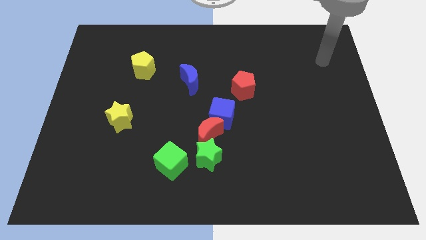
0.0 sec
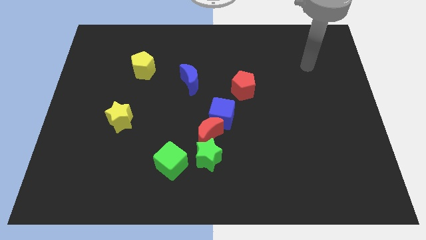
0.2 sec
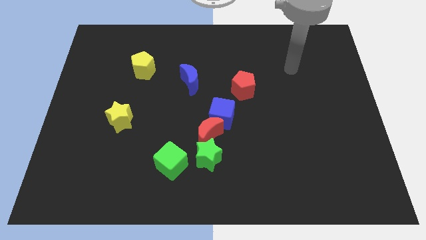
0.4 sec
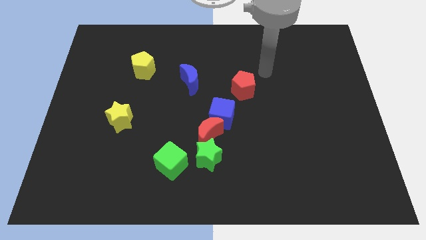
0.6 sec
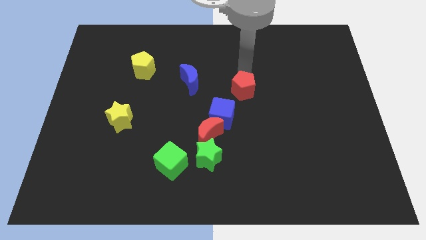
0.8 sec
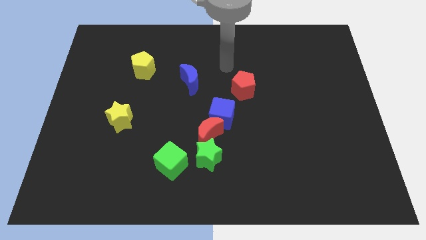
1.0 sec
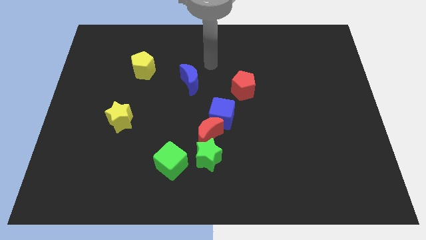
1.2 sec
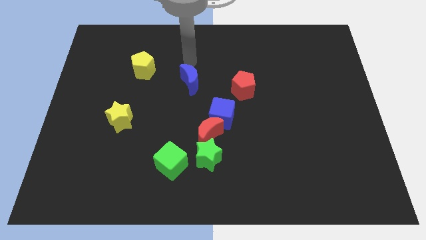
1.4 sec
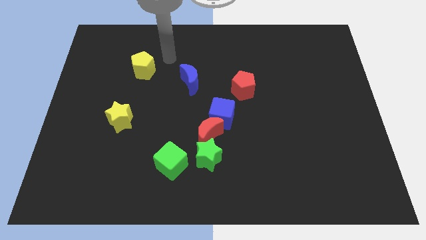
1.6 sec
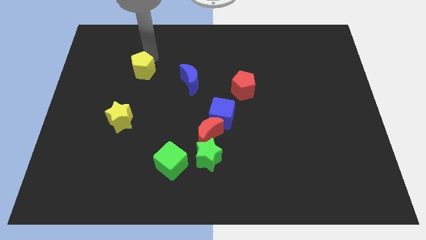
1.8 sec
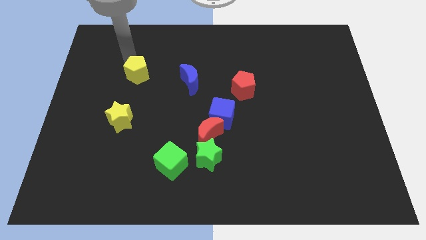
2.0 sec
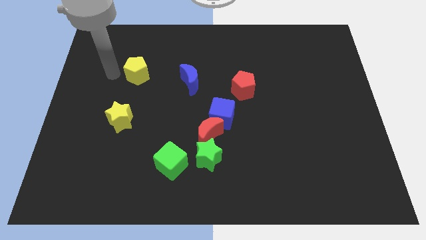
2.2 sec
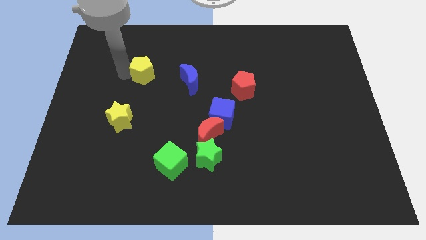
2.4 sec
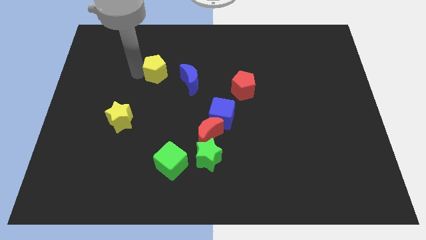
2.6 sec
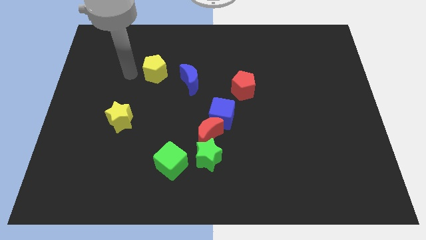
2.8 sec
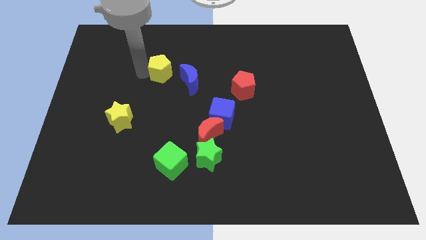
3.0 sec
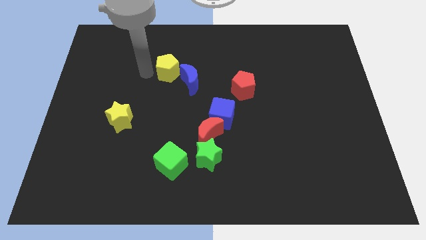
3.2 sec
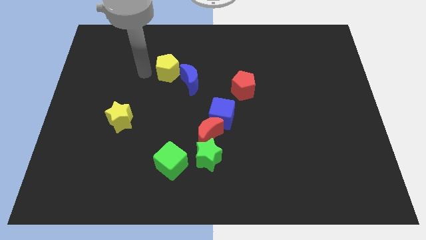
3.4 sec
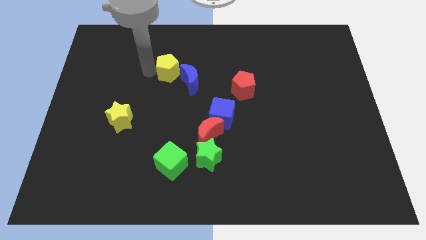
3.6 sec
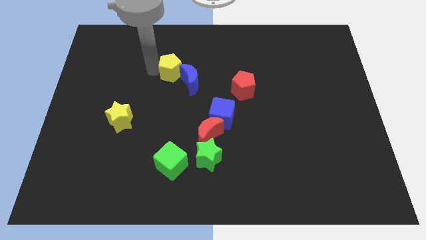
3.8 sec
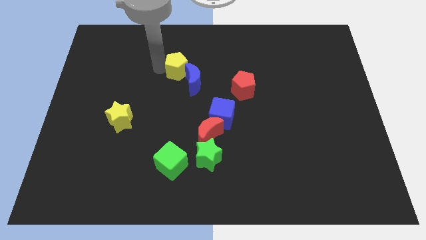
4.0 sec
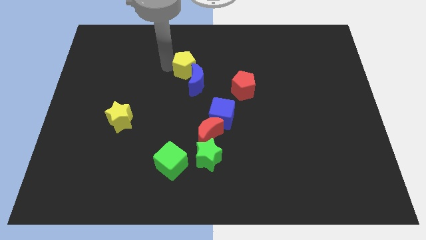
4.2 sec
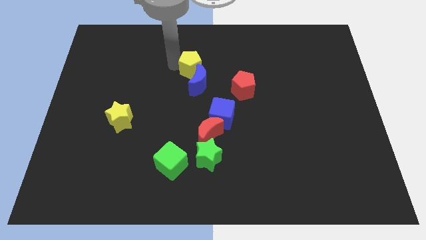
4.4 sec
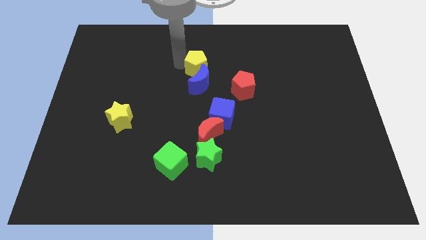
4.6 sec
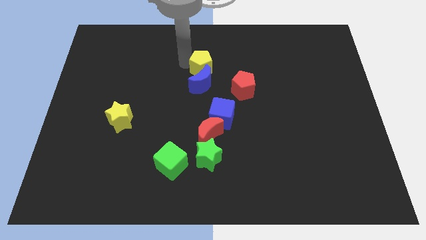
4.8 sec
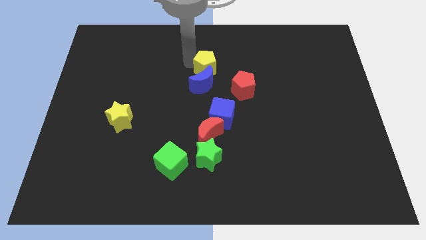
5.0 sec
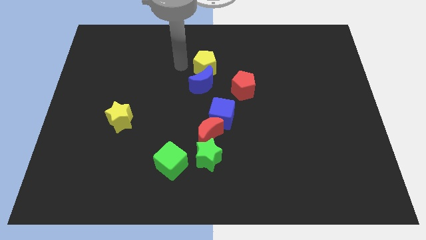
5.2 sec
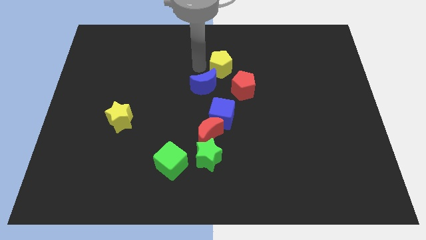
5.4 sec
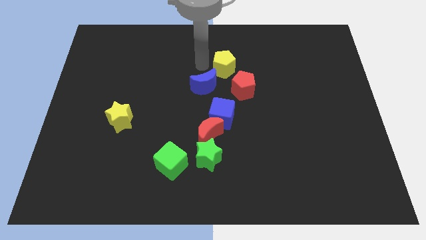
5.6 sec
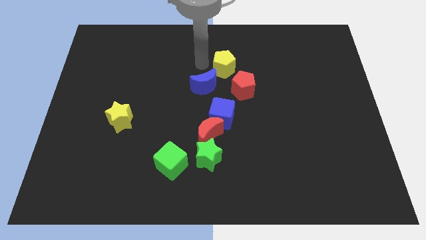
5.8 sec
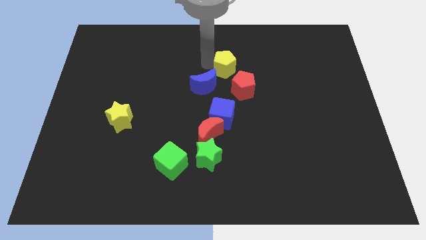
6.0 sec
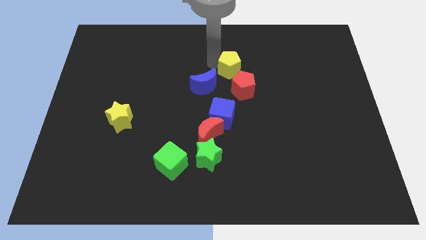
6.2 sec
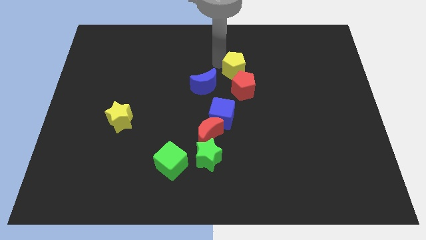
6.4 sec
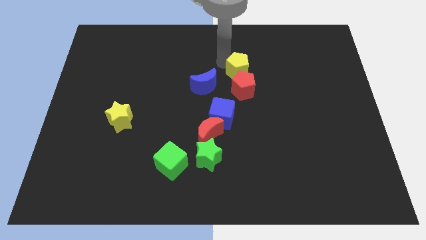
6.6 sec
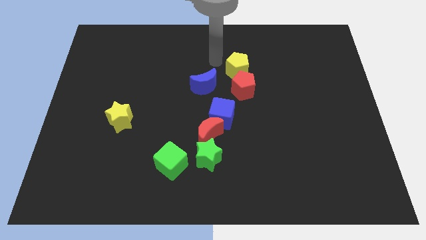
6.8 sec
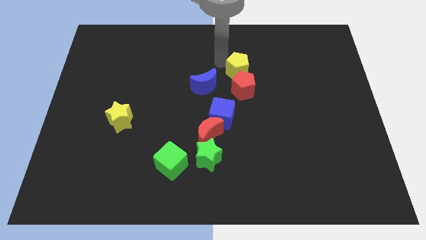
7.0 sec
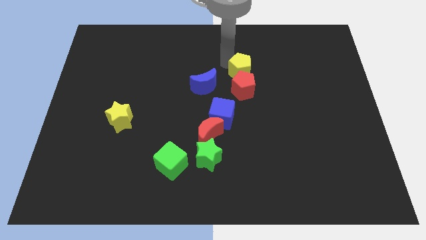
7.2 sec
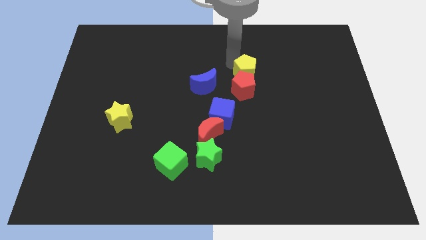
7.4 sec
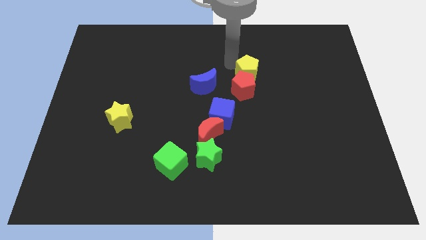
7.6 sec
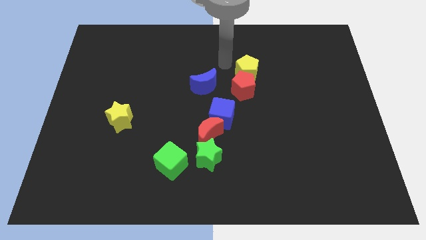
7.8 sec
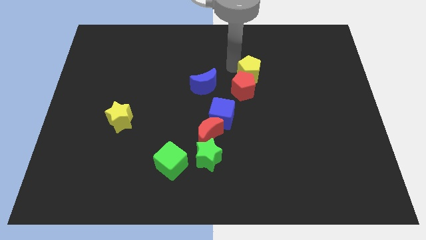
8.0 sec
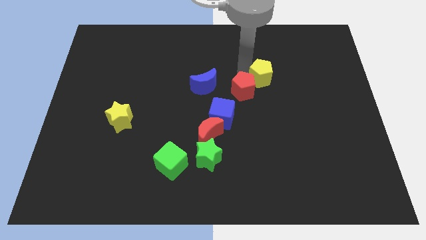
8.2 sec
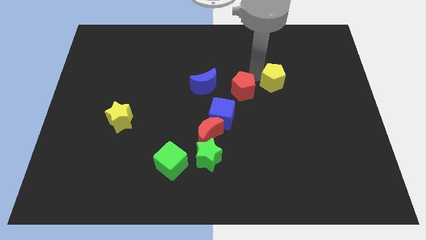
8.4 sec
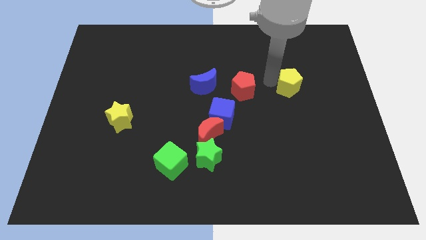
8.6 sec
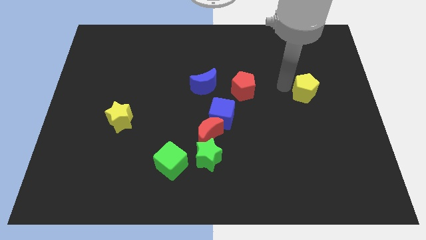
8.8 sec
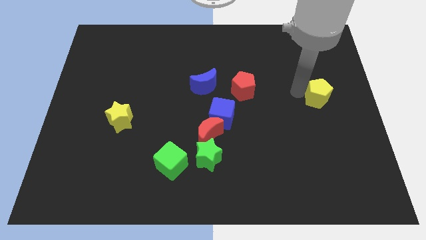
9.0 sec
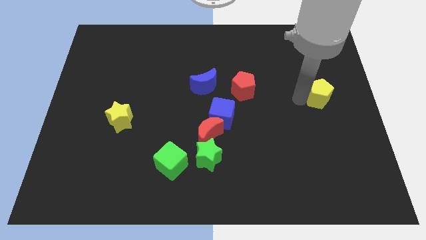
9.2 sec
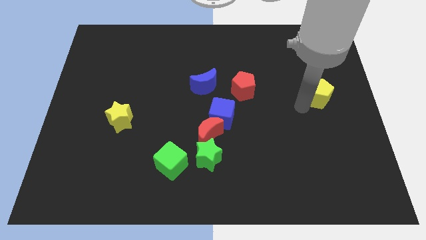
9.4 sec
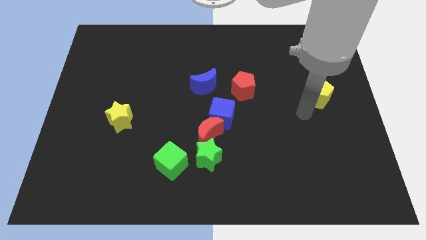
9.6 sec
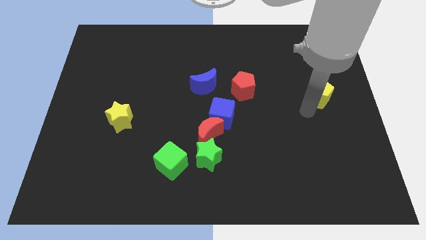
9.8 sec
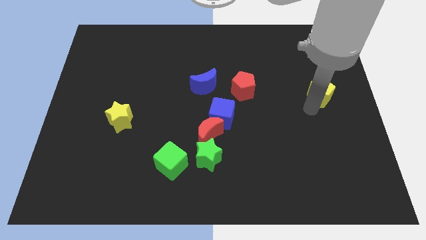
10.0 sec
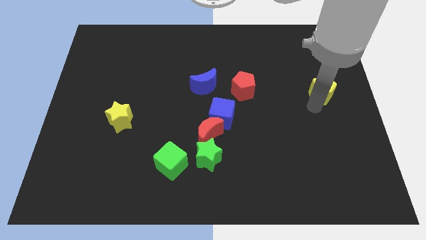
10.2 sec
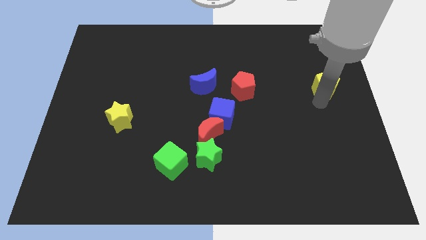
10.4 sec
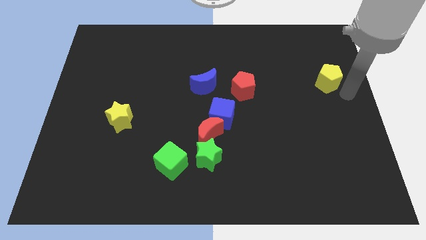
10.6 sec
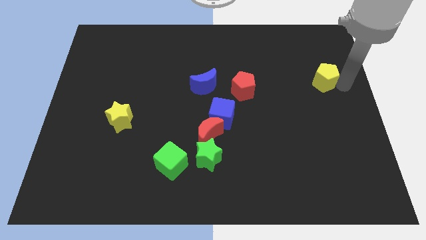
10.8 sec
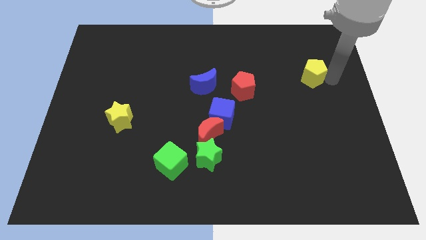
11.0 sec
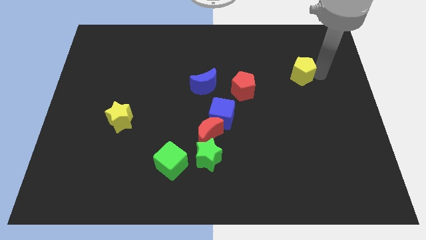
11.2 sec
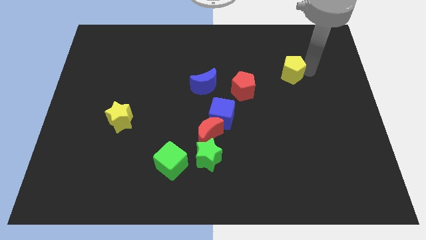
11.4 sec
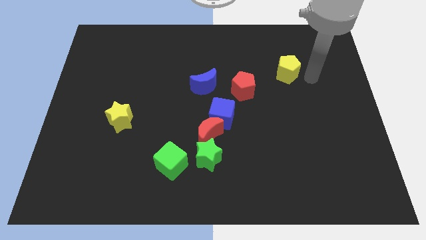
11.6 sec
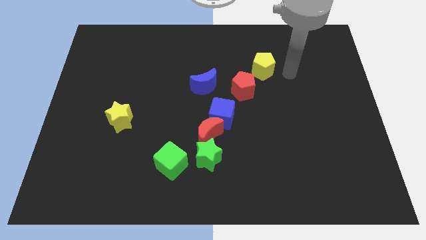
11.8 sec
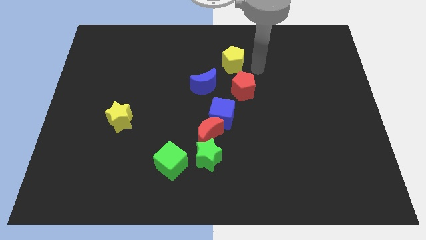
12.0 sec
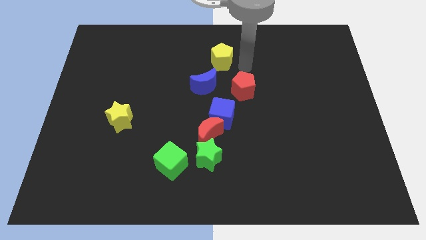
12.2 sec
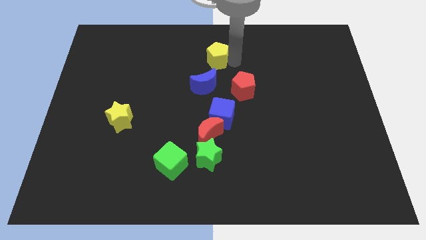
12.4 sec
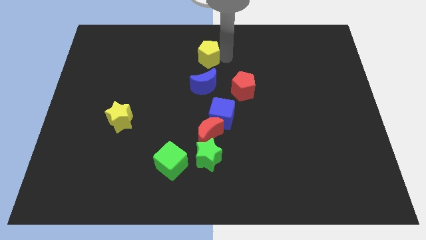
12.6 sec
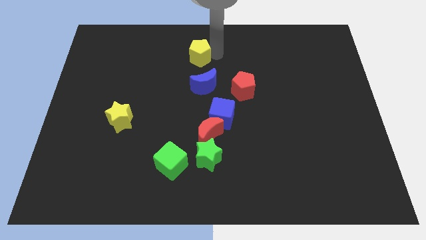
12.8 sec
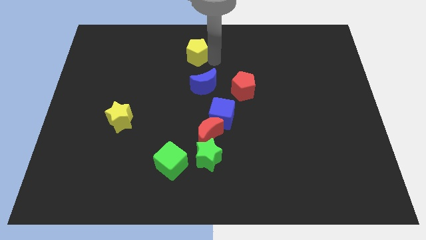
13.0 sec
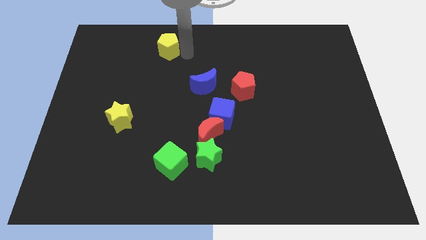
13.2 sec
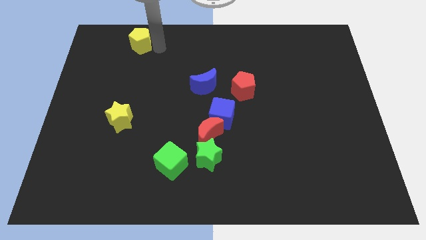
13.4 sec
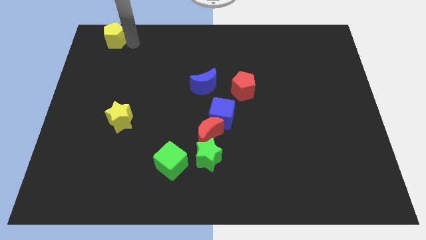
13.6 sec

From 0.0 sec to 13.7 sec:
move the yellow pentagon to the top left
